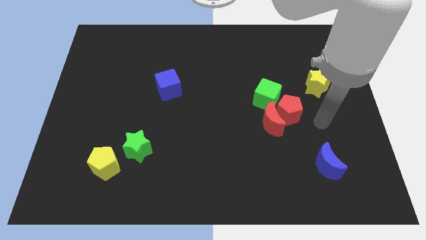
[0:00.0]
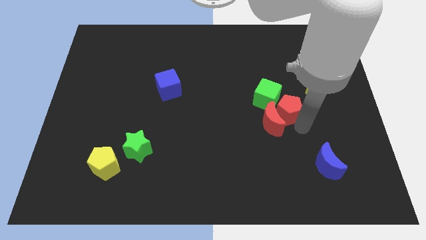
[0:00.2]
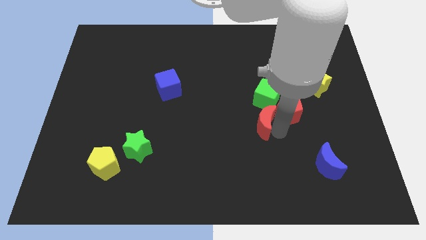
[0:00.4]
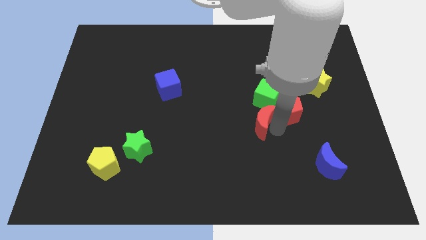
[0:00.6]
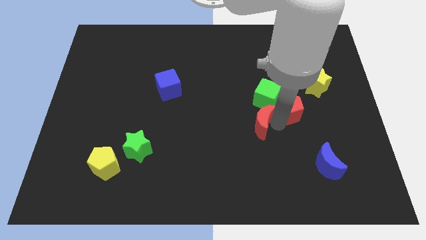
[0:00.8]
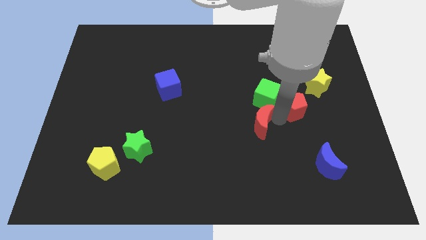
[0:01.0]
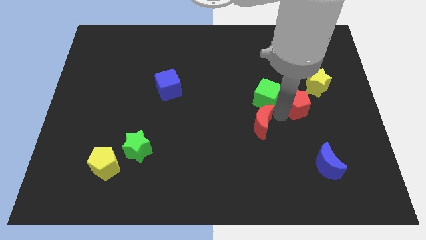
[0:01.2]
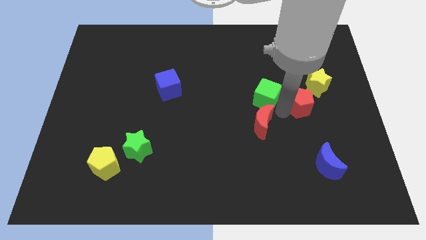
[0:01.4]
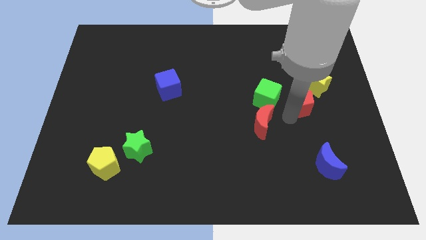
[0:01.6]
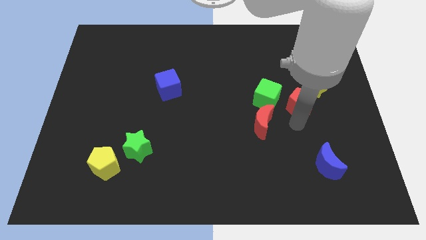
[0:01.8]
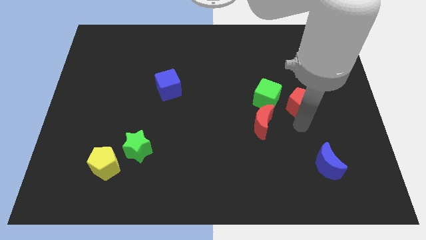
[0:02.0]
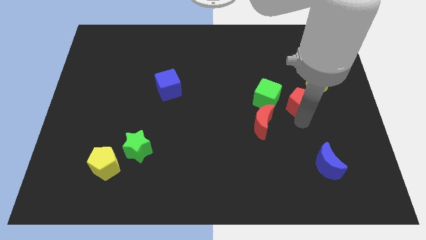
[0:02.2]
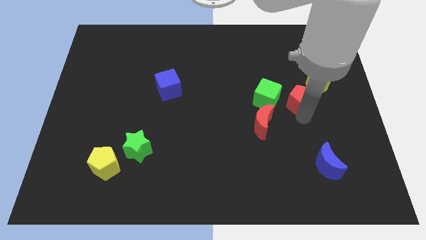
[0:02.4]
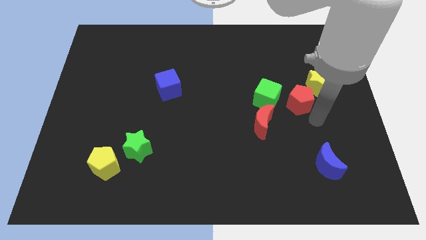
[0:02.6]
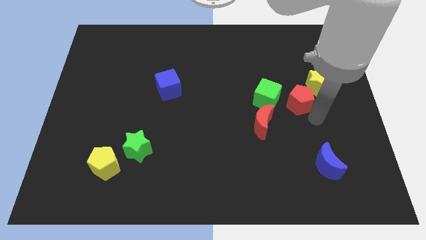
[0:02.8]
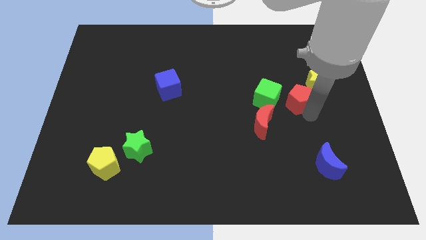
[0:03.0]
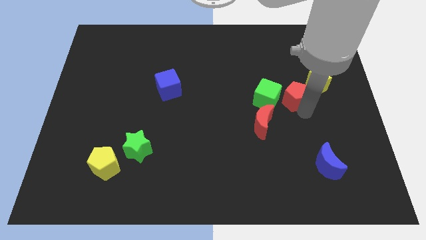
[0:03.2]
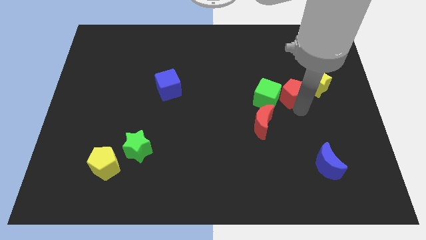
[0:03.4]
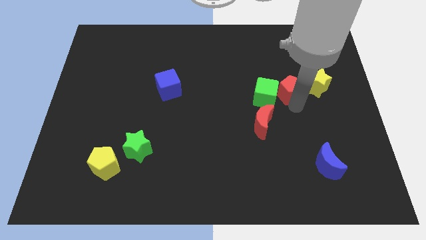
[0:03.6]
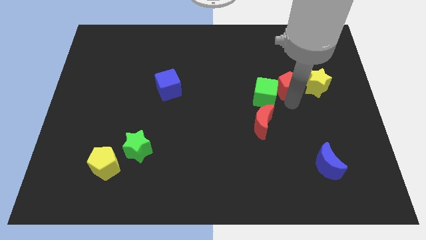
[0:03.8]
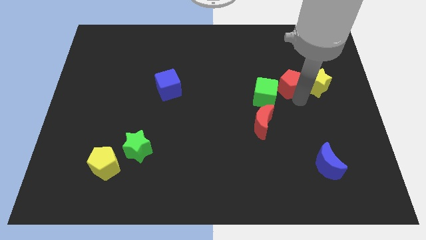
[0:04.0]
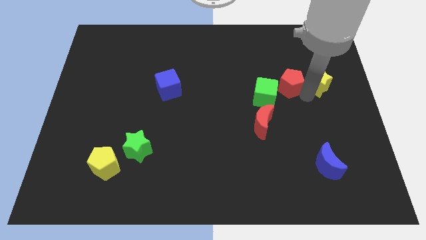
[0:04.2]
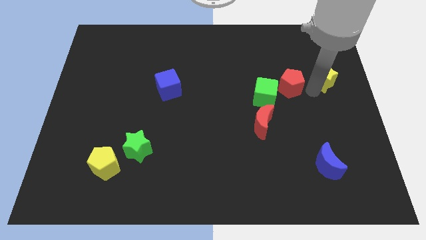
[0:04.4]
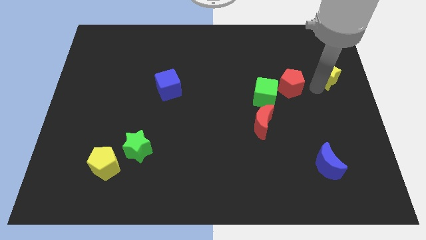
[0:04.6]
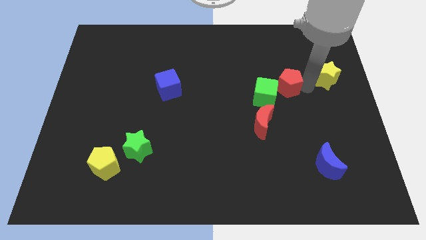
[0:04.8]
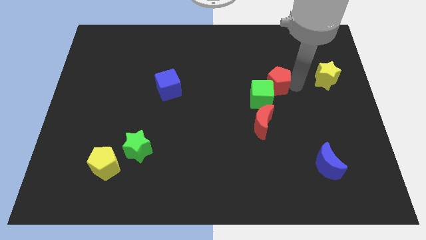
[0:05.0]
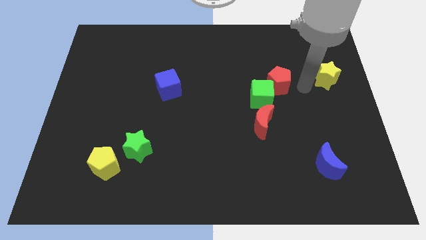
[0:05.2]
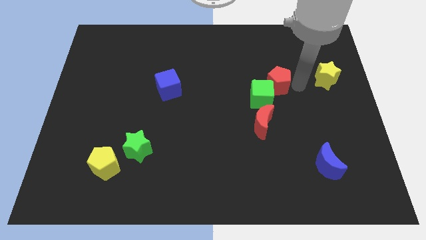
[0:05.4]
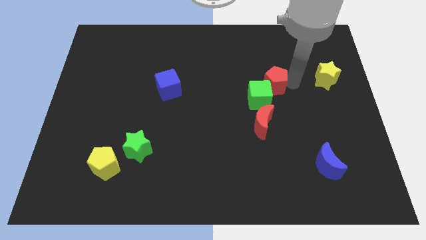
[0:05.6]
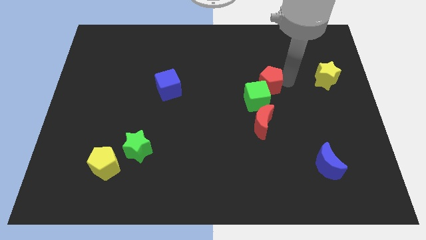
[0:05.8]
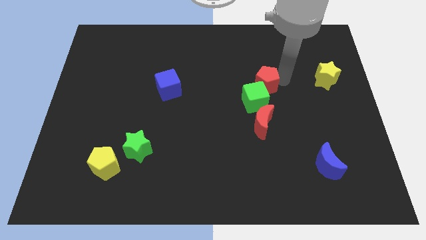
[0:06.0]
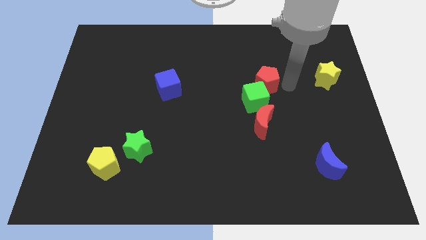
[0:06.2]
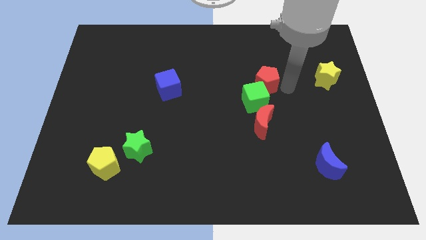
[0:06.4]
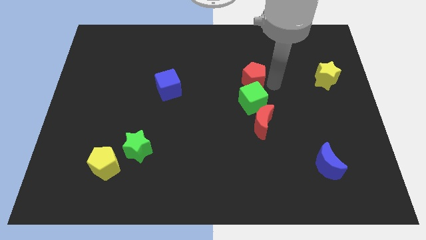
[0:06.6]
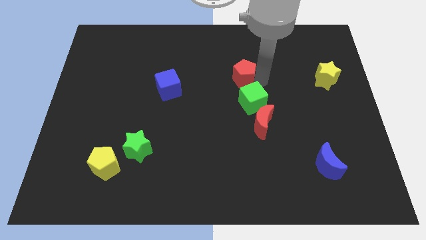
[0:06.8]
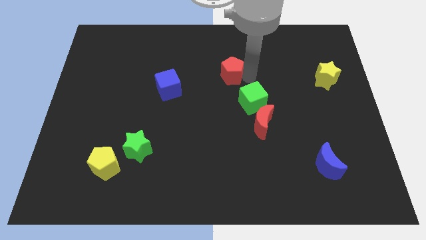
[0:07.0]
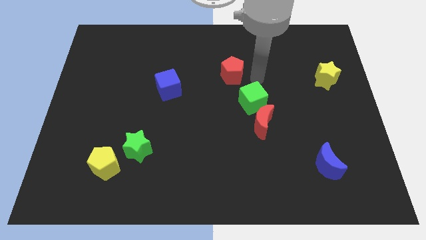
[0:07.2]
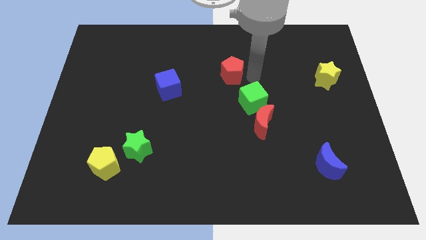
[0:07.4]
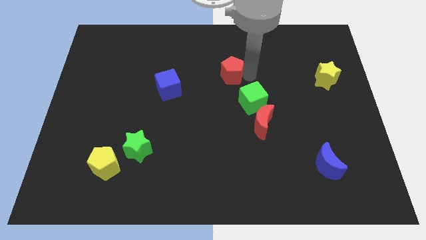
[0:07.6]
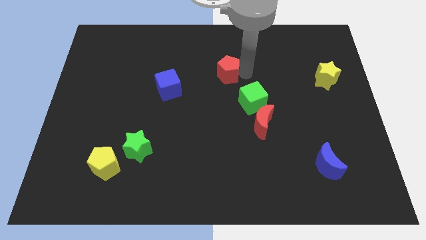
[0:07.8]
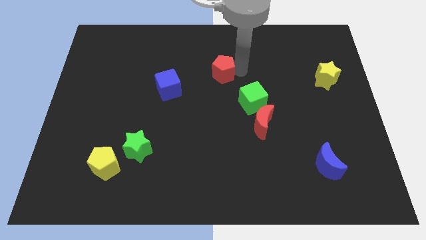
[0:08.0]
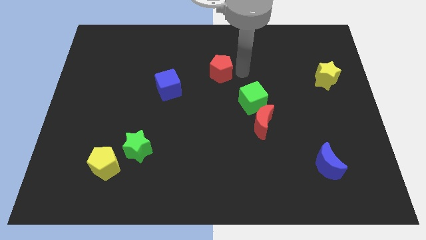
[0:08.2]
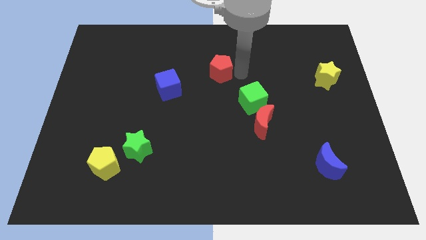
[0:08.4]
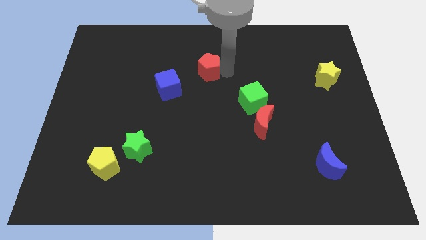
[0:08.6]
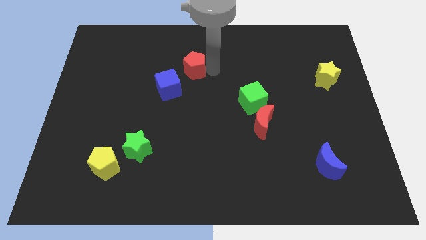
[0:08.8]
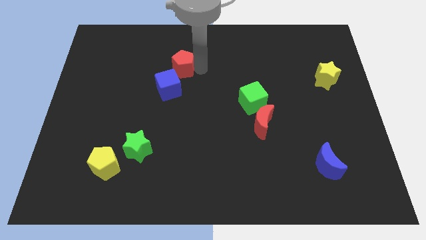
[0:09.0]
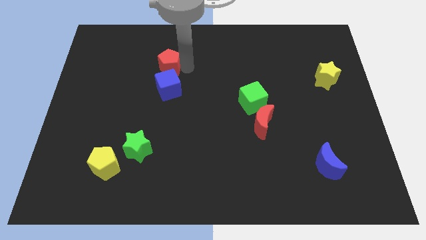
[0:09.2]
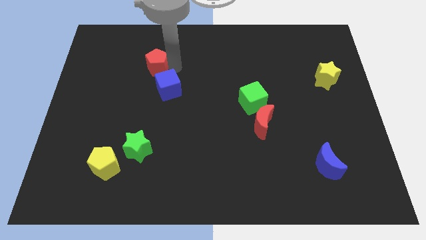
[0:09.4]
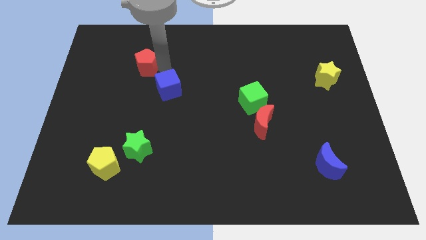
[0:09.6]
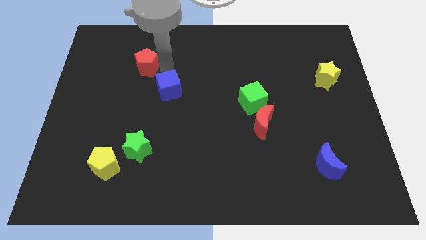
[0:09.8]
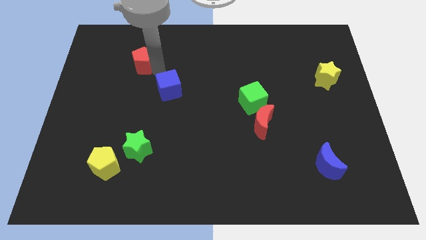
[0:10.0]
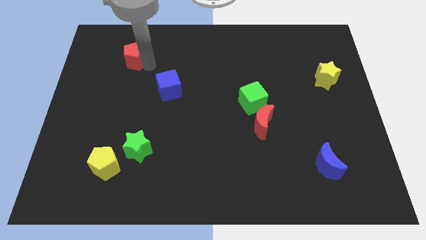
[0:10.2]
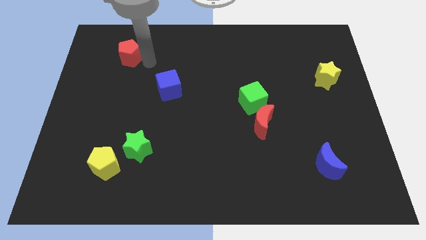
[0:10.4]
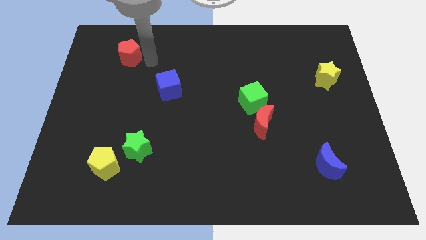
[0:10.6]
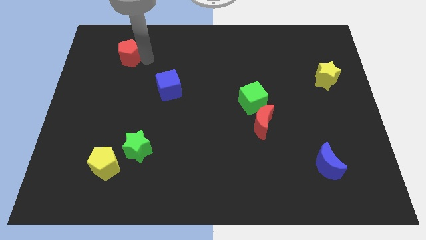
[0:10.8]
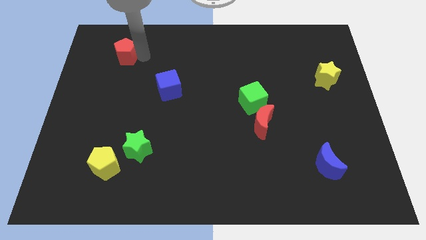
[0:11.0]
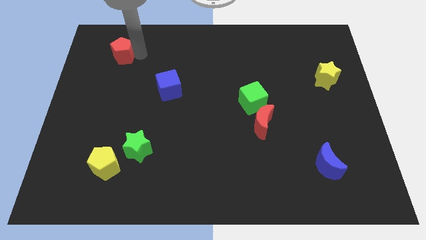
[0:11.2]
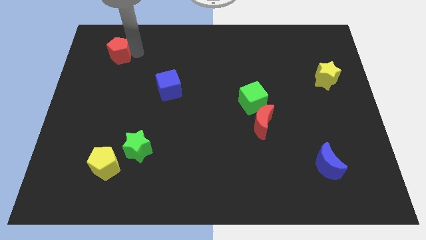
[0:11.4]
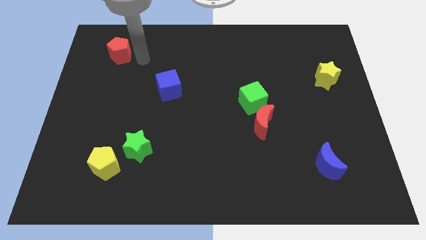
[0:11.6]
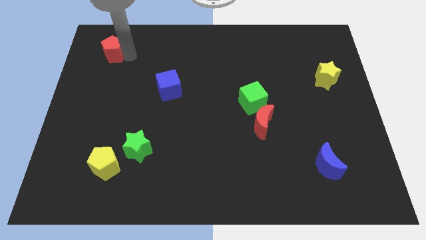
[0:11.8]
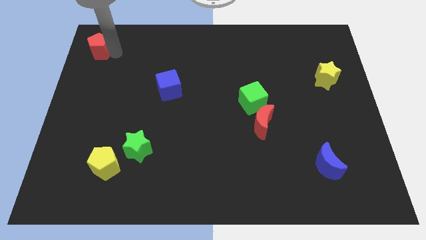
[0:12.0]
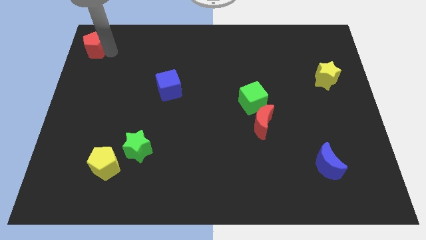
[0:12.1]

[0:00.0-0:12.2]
push the red pentagon to the top left of the board

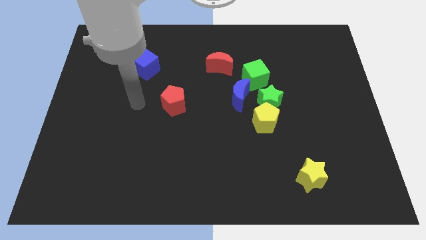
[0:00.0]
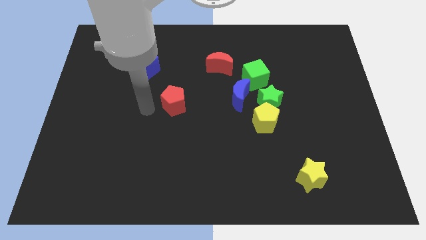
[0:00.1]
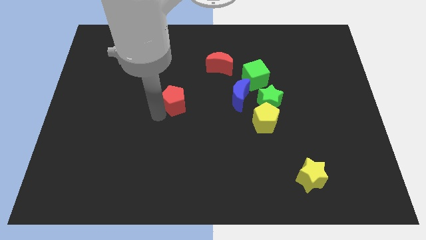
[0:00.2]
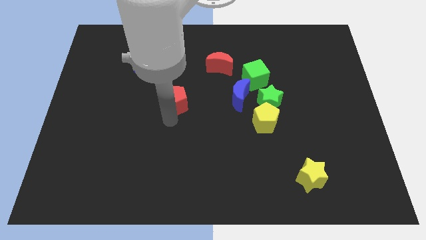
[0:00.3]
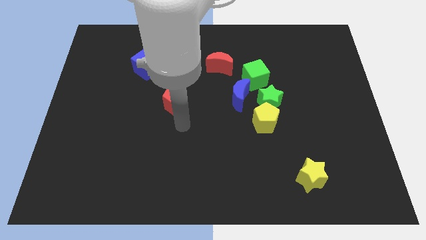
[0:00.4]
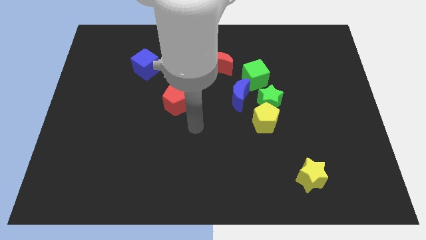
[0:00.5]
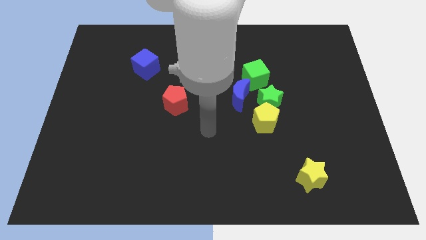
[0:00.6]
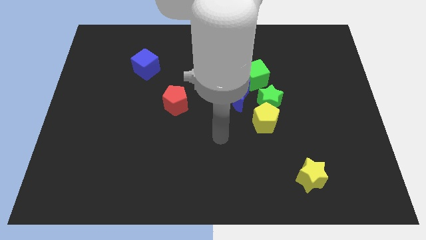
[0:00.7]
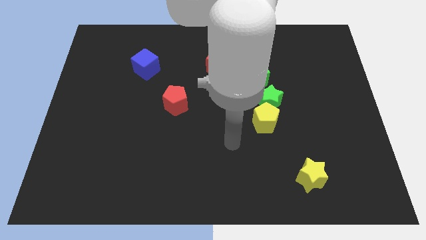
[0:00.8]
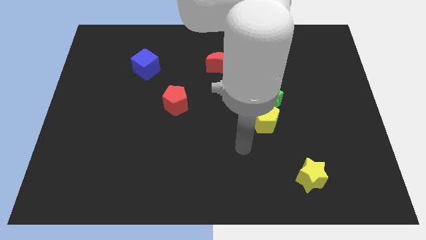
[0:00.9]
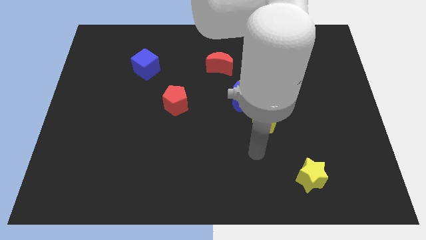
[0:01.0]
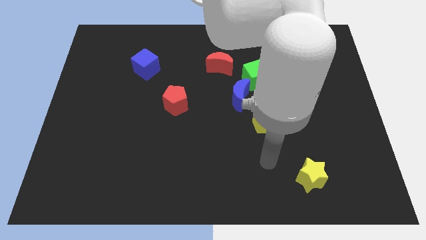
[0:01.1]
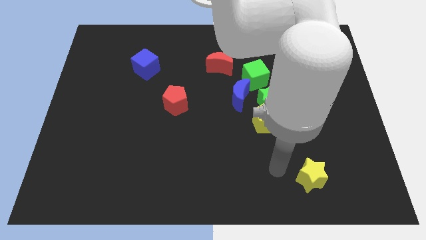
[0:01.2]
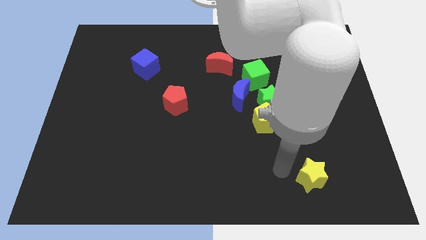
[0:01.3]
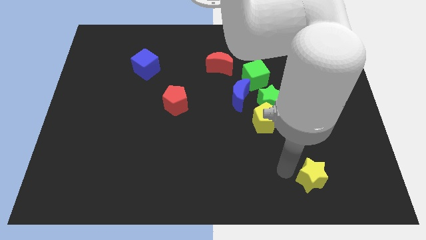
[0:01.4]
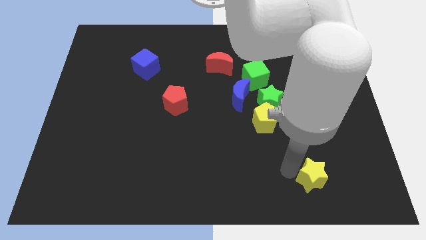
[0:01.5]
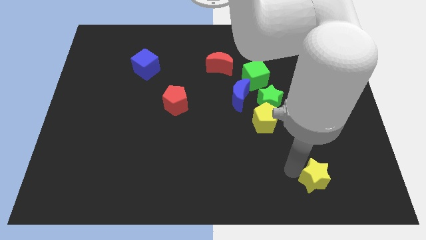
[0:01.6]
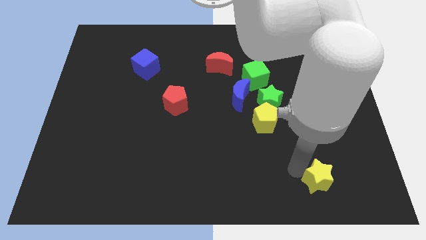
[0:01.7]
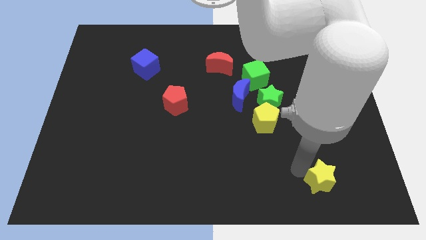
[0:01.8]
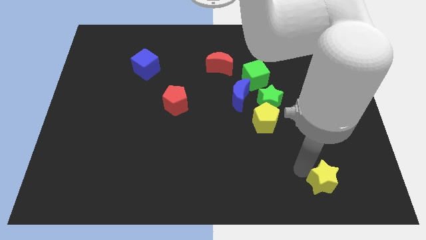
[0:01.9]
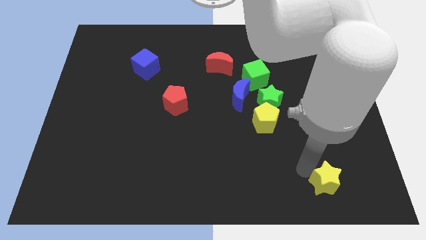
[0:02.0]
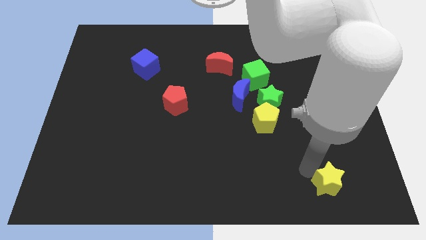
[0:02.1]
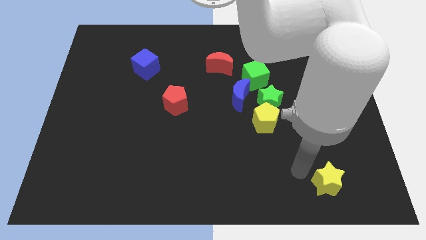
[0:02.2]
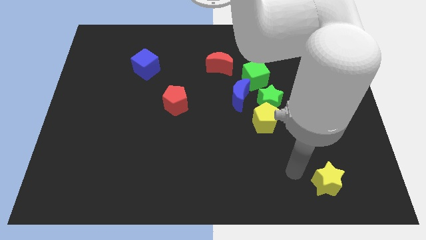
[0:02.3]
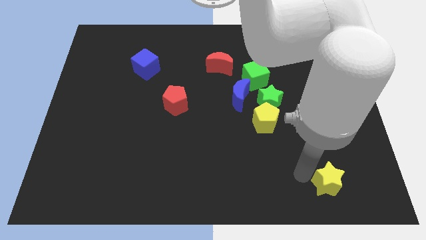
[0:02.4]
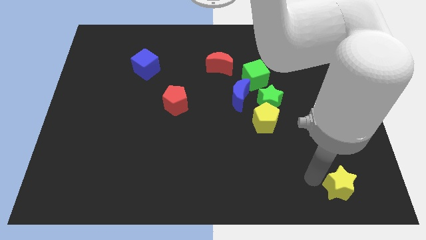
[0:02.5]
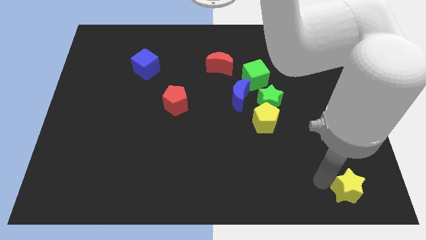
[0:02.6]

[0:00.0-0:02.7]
put the yellow star to the lower right corner
